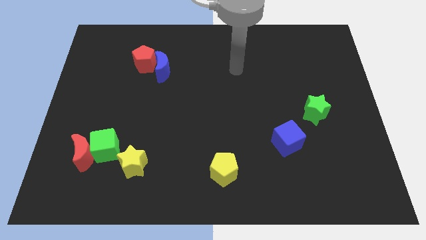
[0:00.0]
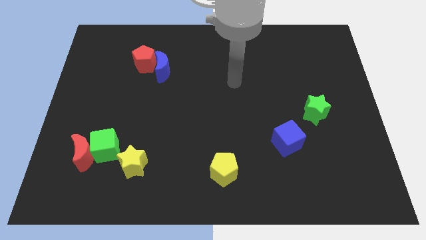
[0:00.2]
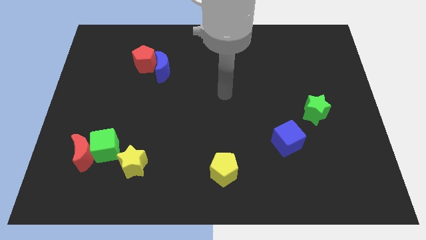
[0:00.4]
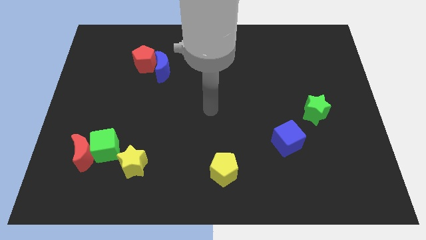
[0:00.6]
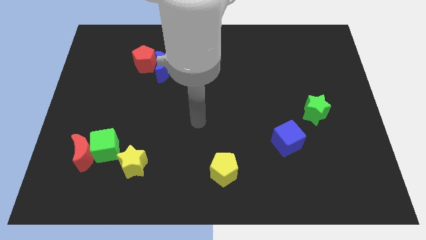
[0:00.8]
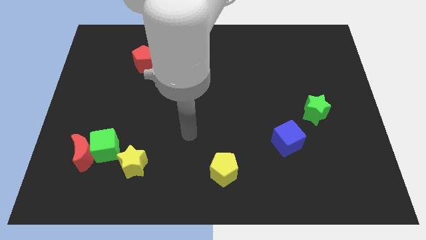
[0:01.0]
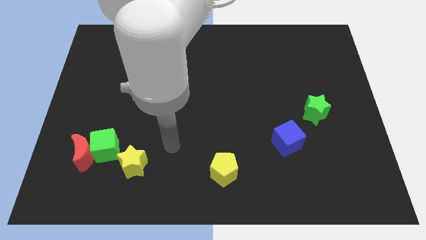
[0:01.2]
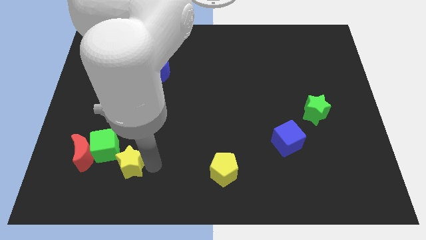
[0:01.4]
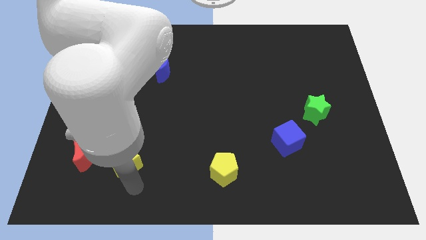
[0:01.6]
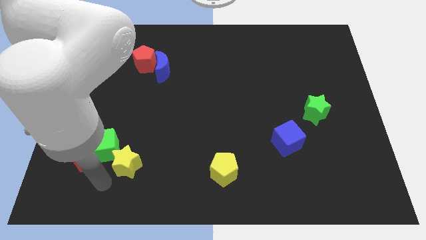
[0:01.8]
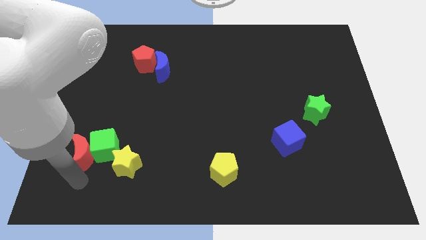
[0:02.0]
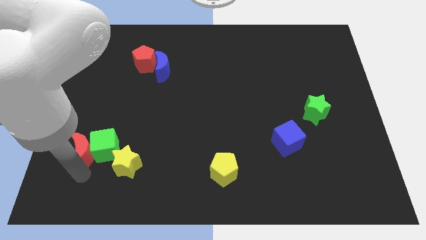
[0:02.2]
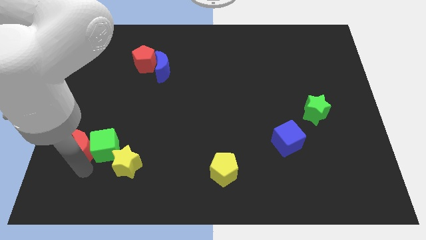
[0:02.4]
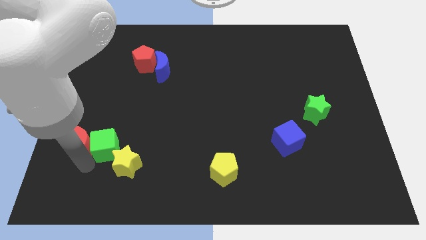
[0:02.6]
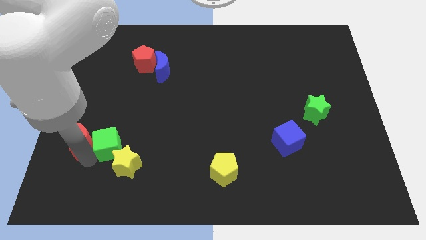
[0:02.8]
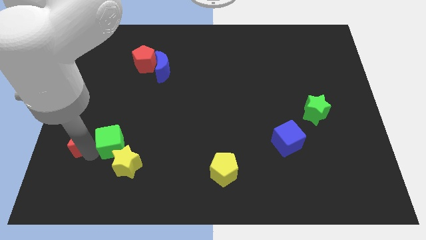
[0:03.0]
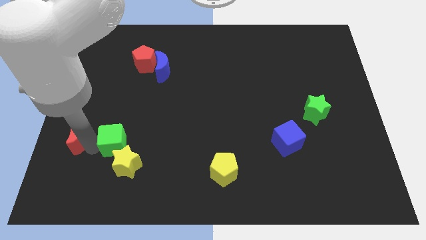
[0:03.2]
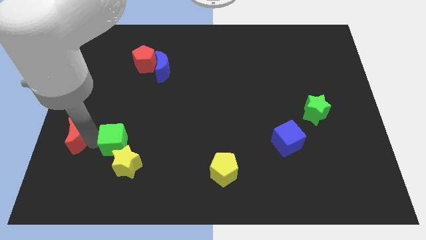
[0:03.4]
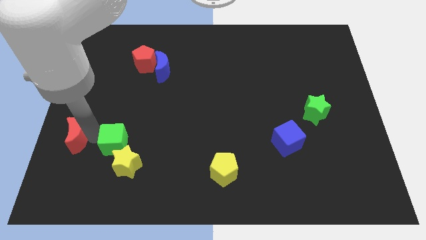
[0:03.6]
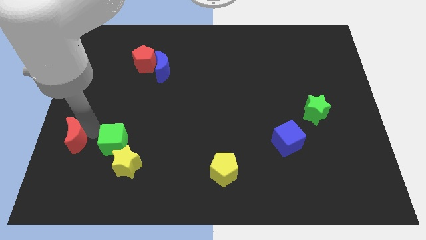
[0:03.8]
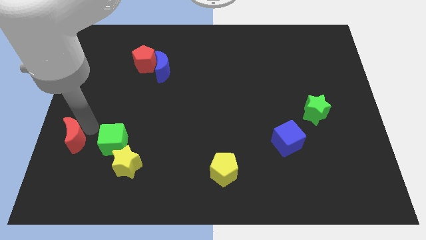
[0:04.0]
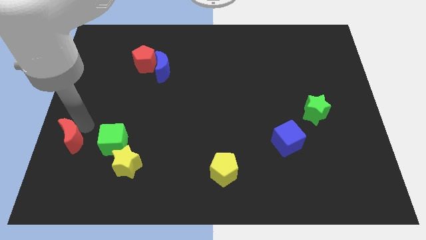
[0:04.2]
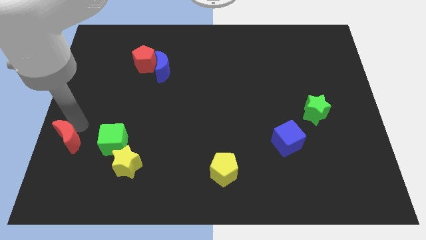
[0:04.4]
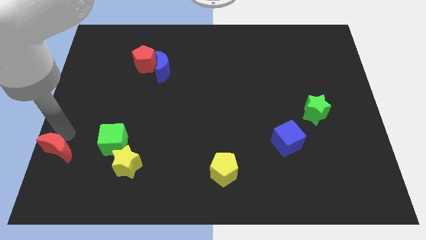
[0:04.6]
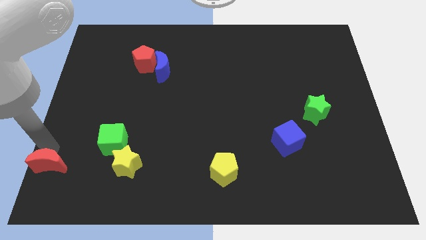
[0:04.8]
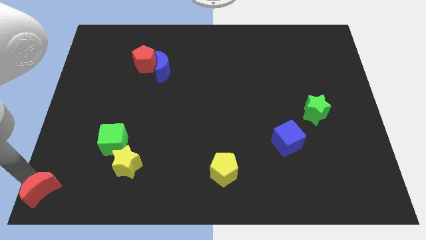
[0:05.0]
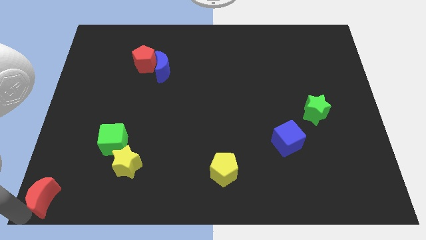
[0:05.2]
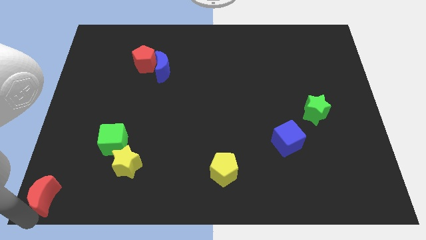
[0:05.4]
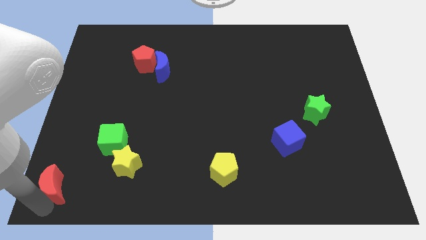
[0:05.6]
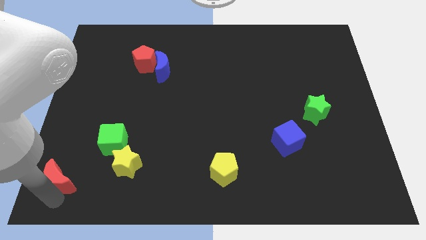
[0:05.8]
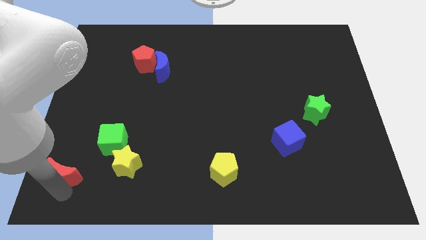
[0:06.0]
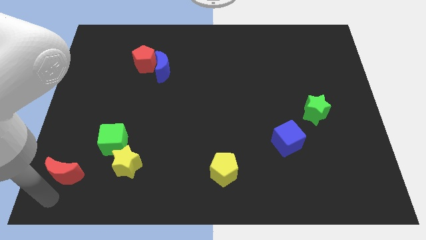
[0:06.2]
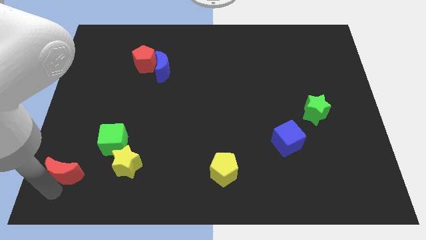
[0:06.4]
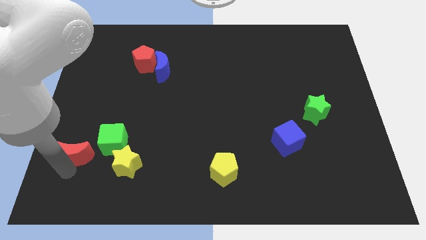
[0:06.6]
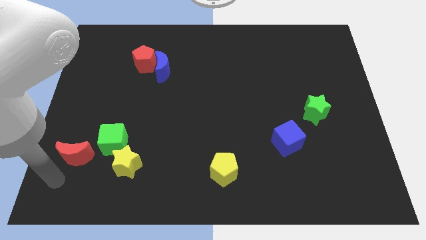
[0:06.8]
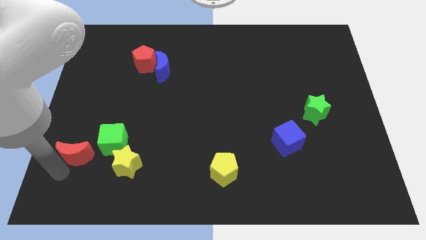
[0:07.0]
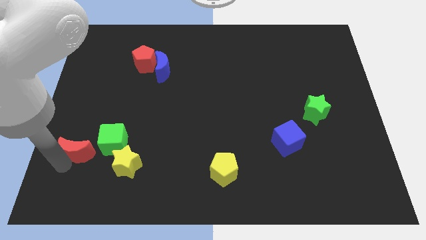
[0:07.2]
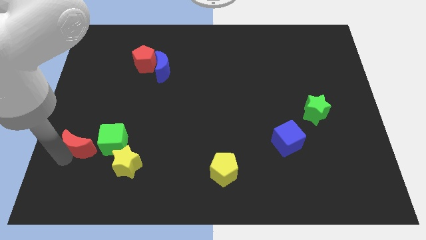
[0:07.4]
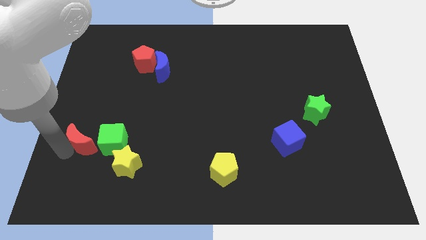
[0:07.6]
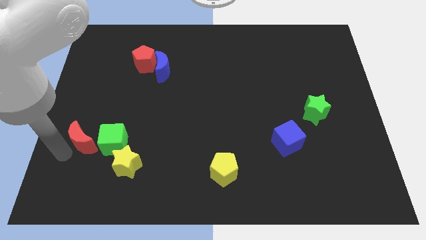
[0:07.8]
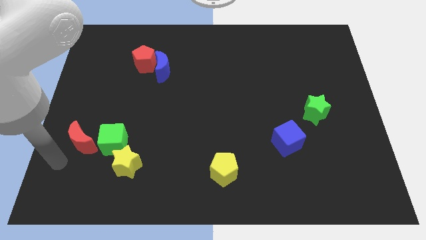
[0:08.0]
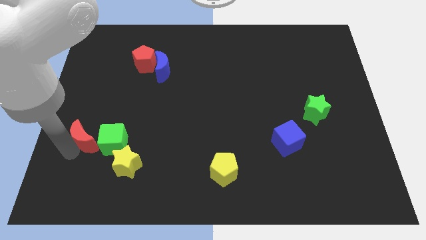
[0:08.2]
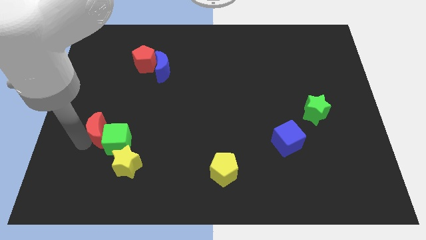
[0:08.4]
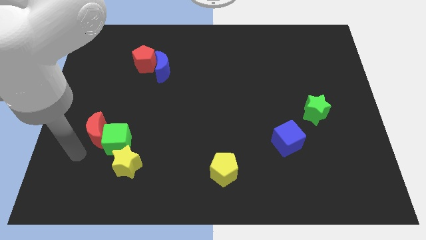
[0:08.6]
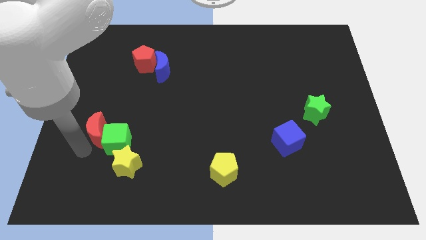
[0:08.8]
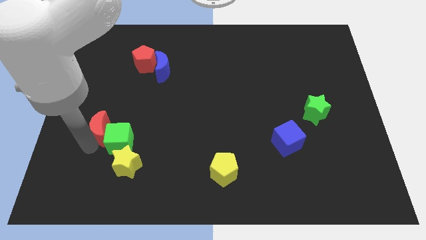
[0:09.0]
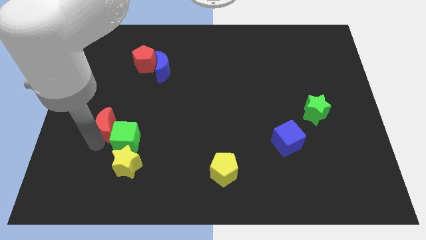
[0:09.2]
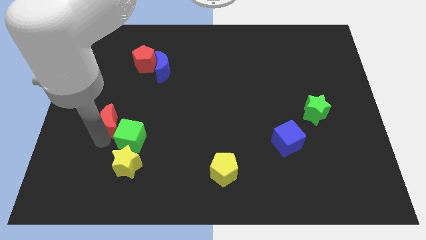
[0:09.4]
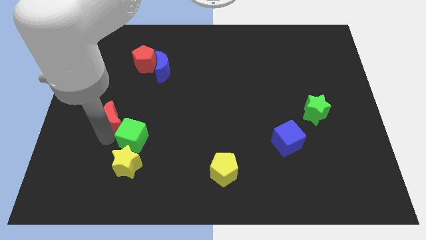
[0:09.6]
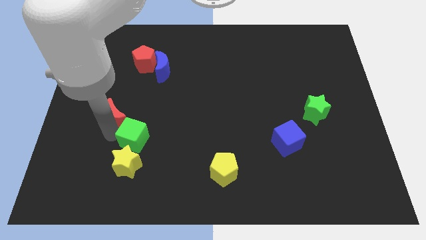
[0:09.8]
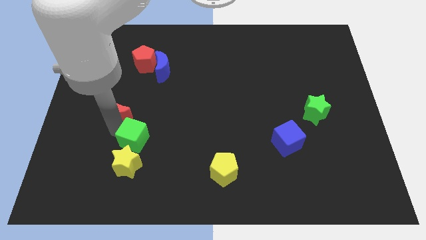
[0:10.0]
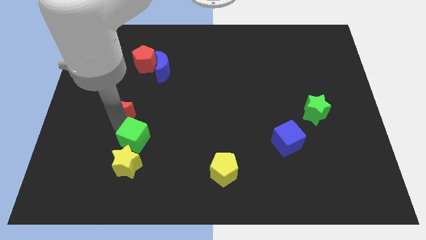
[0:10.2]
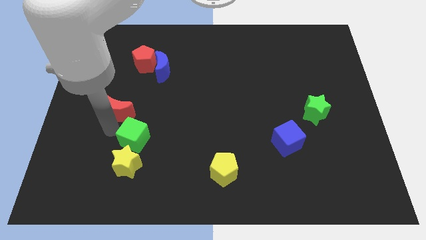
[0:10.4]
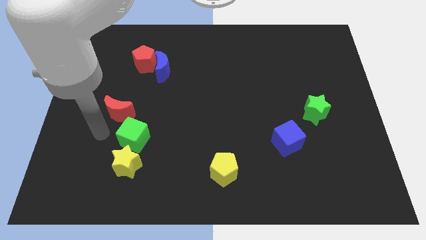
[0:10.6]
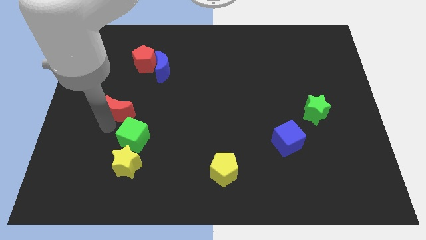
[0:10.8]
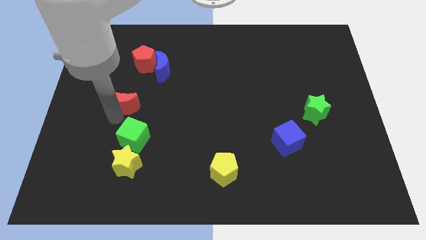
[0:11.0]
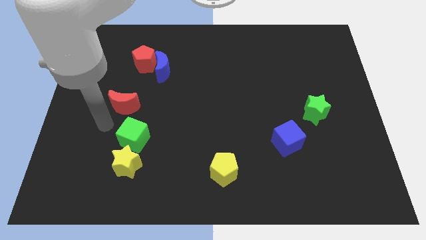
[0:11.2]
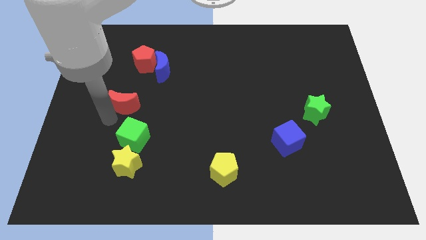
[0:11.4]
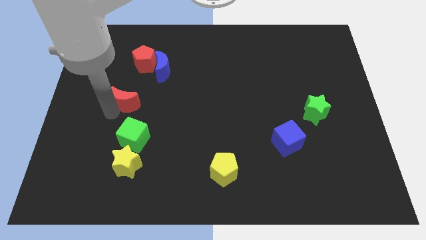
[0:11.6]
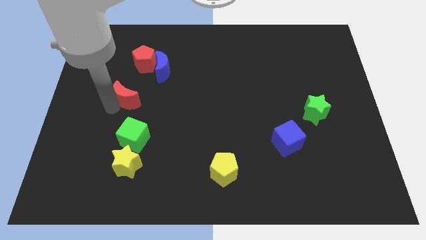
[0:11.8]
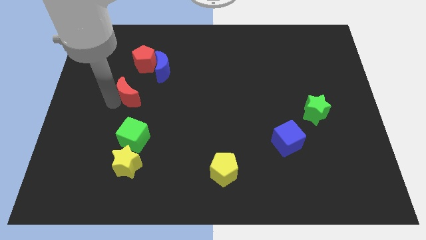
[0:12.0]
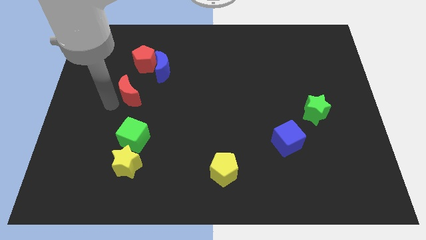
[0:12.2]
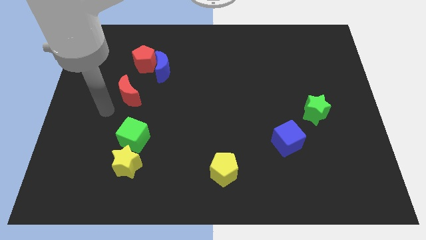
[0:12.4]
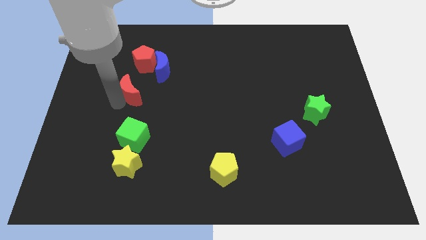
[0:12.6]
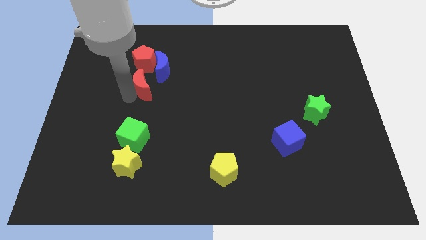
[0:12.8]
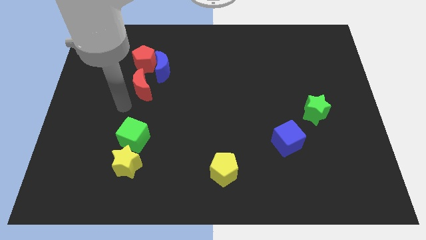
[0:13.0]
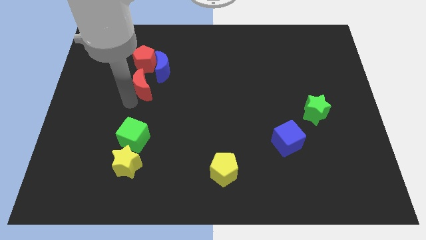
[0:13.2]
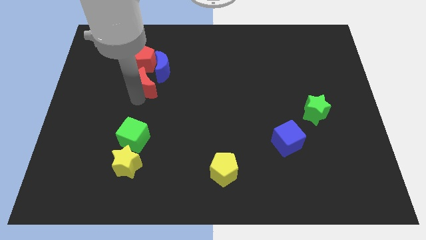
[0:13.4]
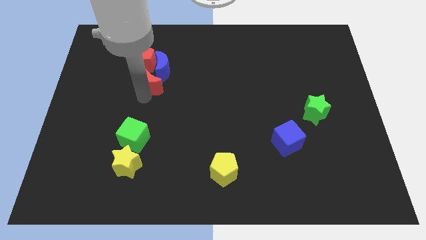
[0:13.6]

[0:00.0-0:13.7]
slide the red moon towards the blue moon
